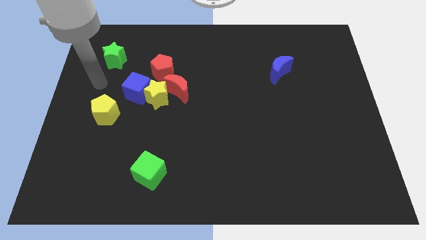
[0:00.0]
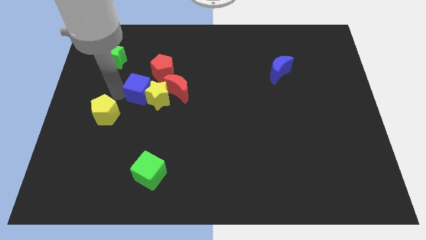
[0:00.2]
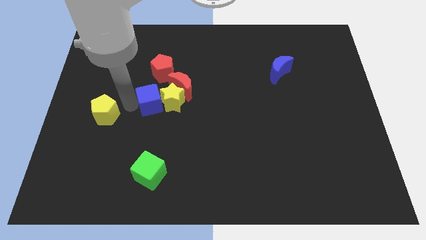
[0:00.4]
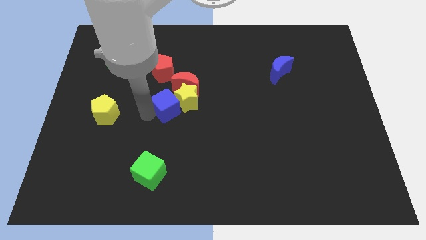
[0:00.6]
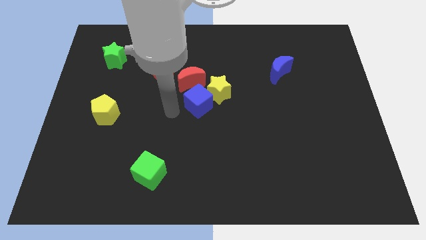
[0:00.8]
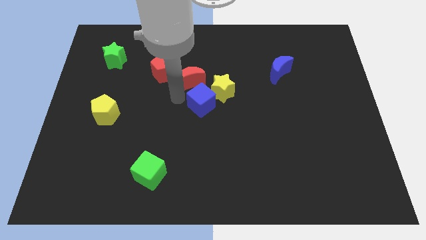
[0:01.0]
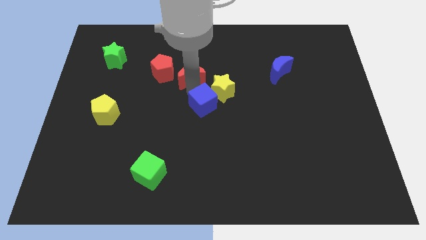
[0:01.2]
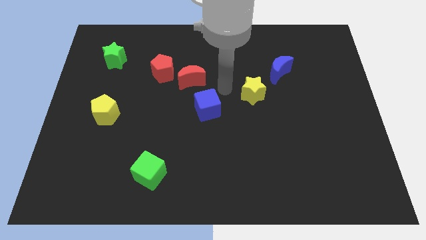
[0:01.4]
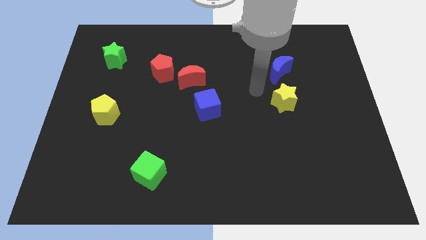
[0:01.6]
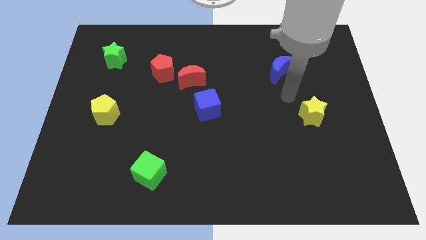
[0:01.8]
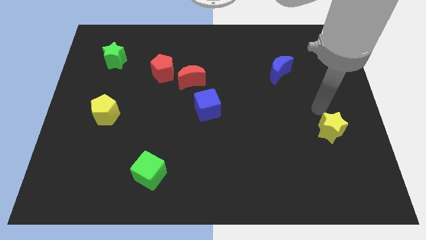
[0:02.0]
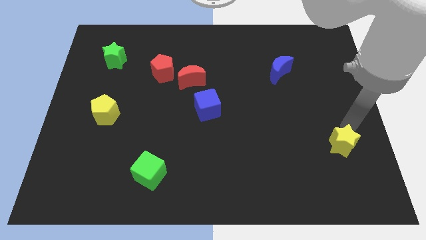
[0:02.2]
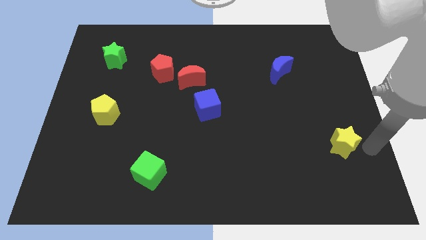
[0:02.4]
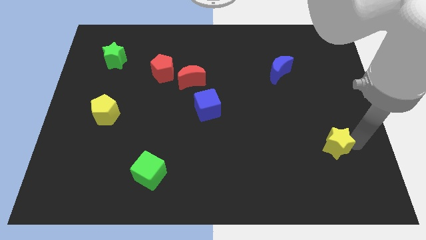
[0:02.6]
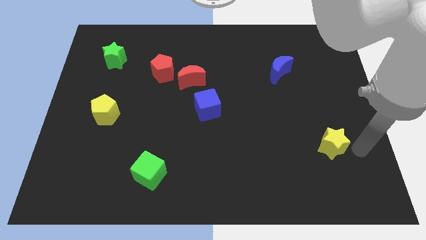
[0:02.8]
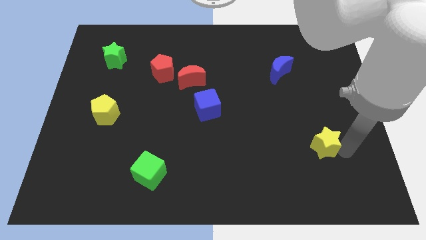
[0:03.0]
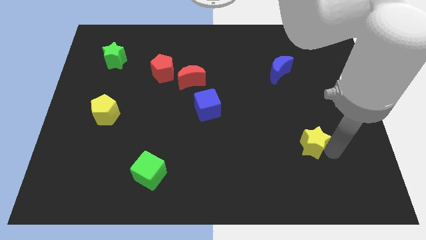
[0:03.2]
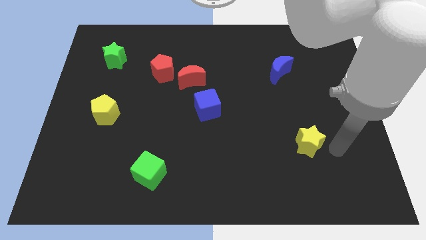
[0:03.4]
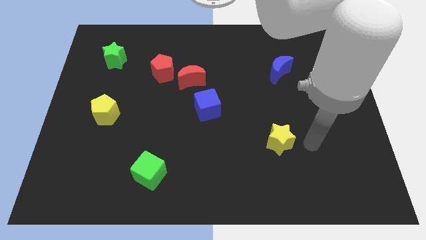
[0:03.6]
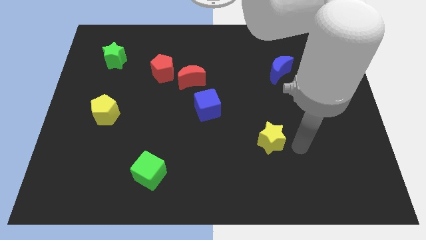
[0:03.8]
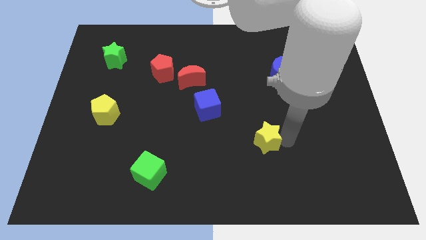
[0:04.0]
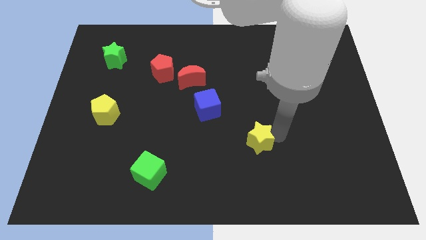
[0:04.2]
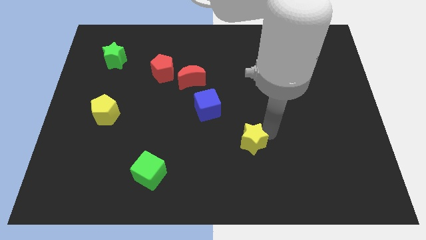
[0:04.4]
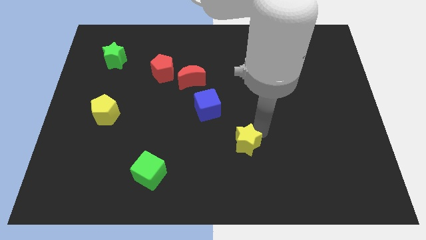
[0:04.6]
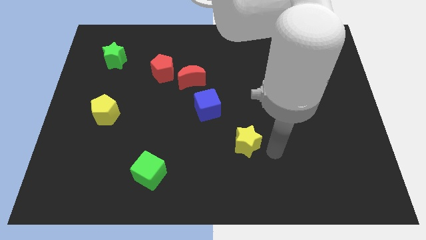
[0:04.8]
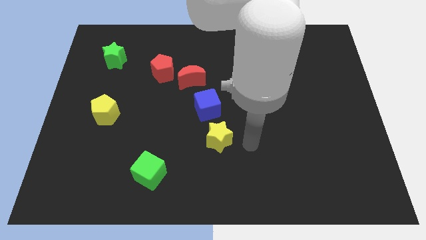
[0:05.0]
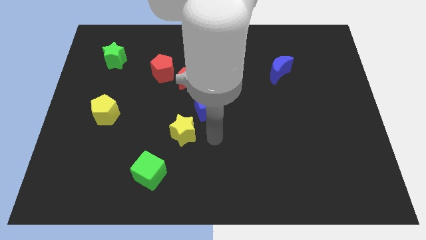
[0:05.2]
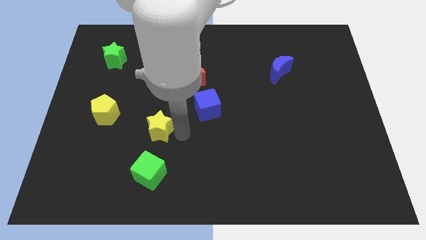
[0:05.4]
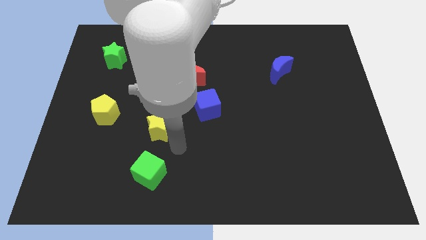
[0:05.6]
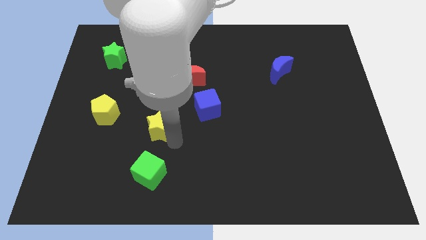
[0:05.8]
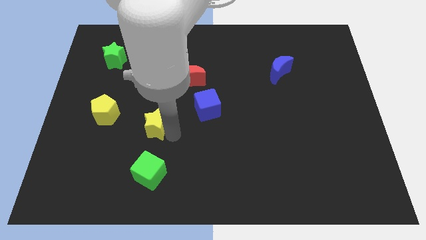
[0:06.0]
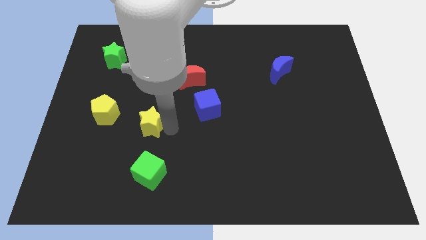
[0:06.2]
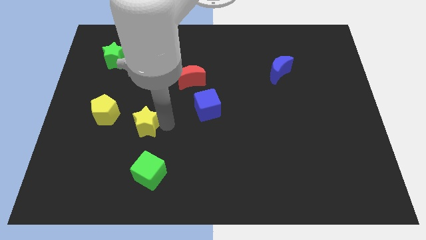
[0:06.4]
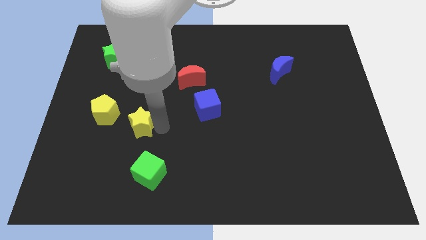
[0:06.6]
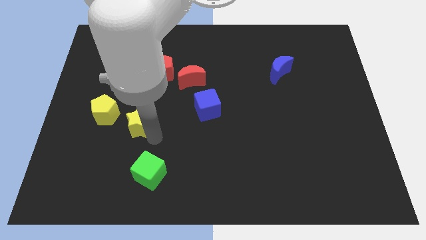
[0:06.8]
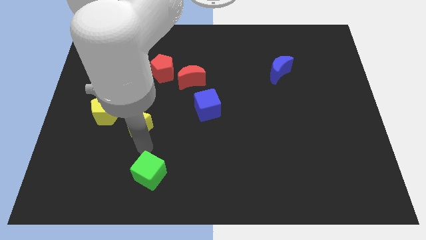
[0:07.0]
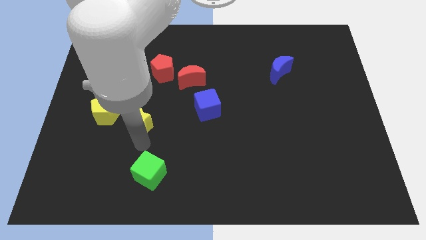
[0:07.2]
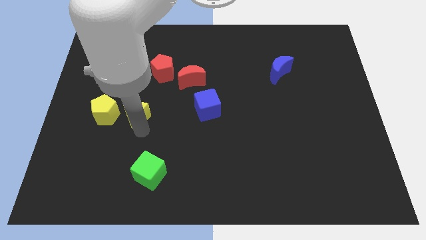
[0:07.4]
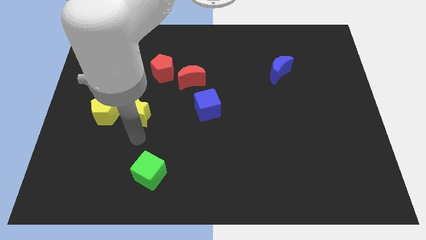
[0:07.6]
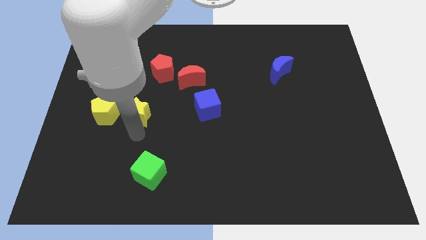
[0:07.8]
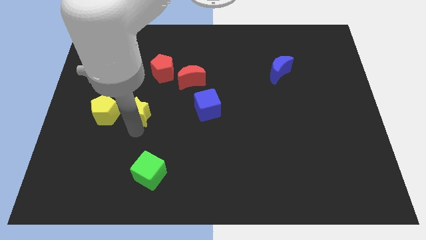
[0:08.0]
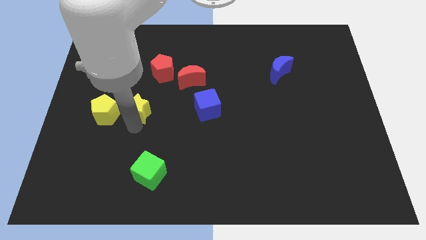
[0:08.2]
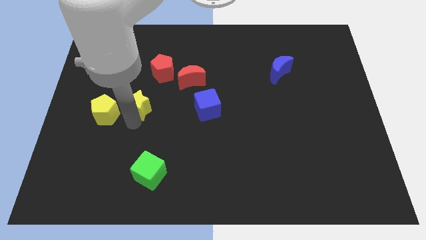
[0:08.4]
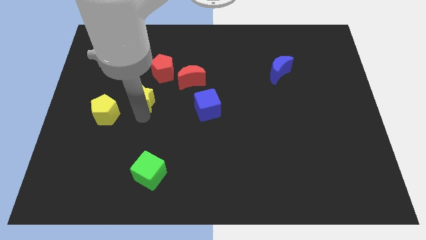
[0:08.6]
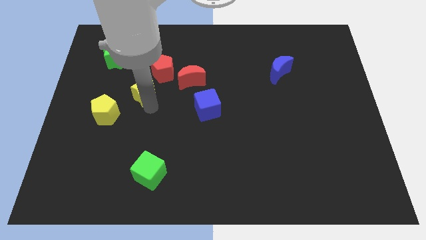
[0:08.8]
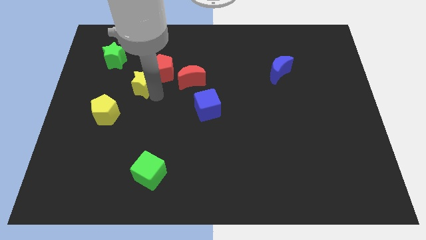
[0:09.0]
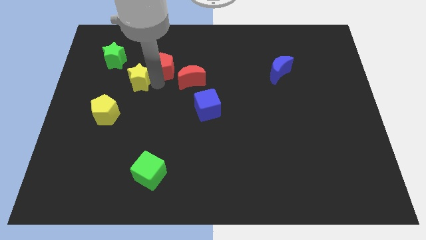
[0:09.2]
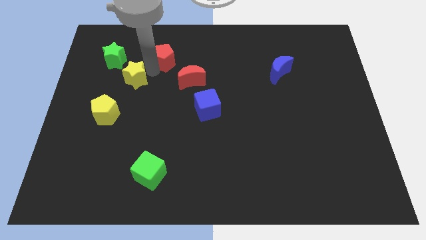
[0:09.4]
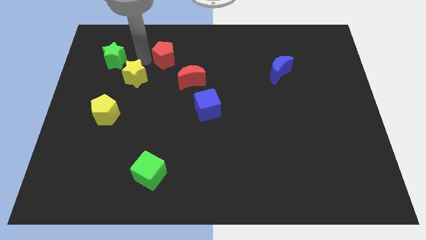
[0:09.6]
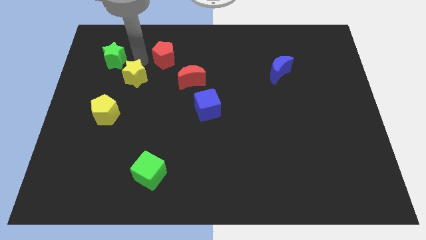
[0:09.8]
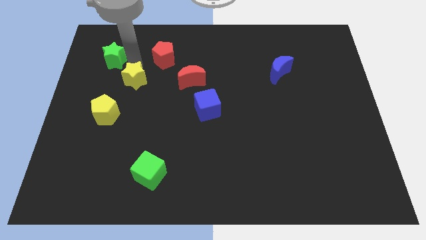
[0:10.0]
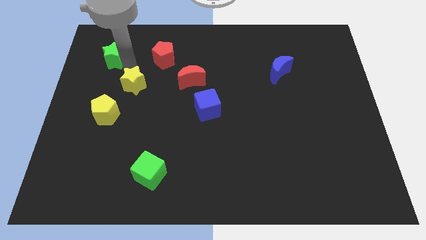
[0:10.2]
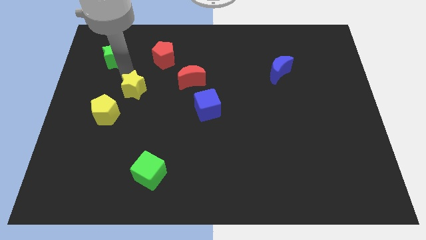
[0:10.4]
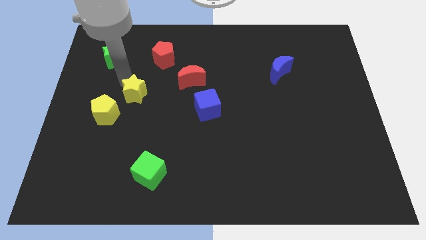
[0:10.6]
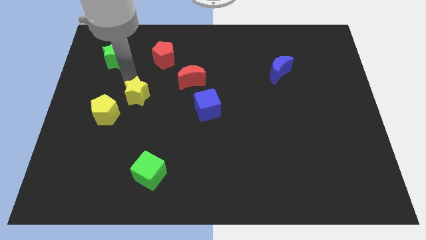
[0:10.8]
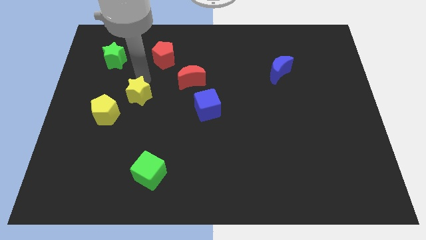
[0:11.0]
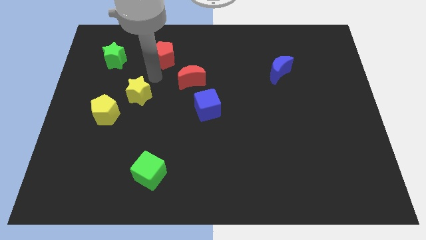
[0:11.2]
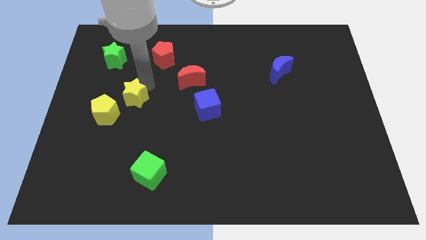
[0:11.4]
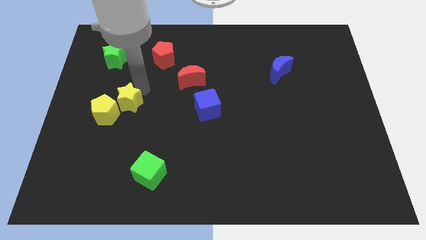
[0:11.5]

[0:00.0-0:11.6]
put the yellow star towards the yellow pentagon

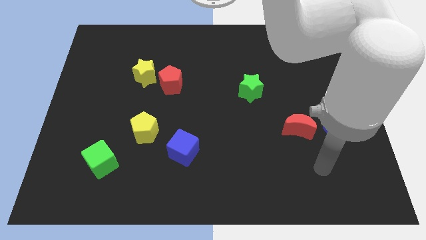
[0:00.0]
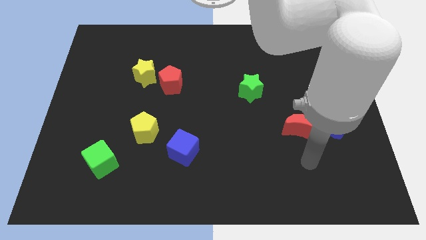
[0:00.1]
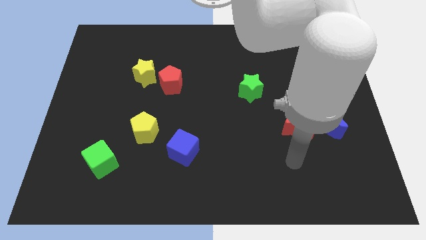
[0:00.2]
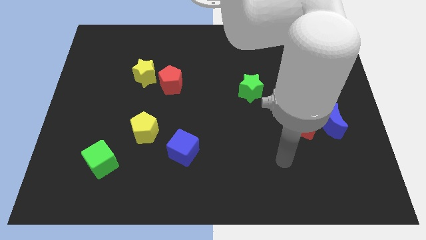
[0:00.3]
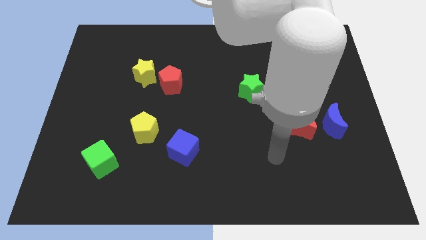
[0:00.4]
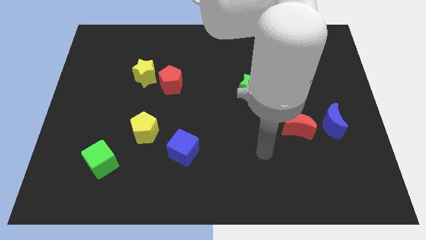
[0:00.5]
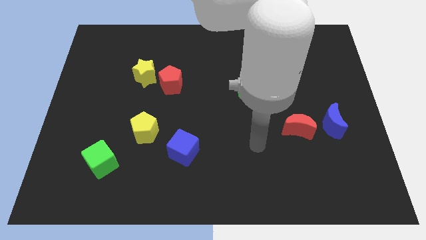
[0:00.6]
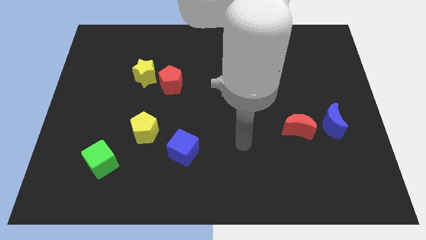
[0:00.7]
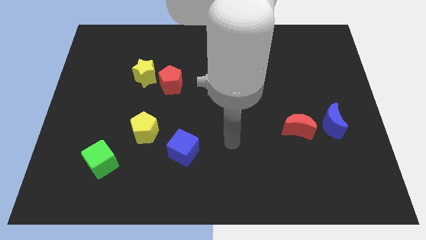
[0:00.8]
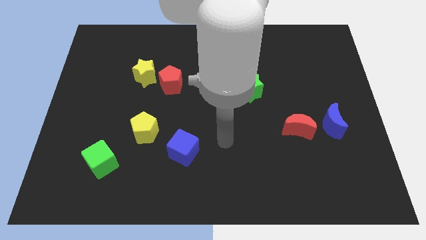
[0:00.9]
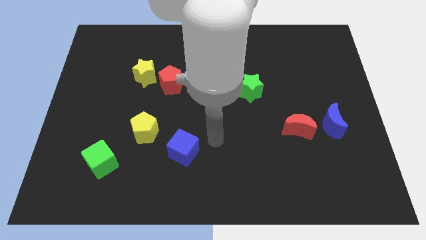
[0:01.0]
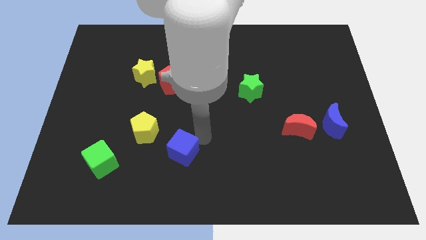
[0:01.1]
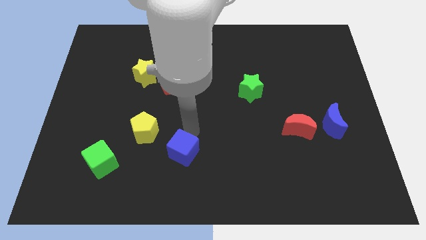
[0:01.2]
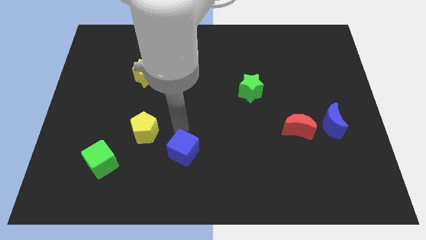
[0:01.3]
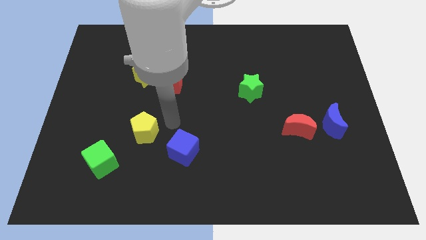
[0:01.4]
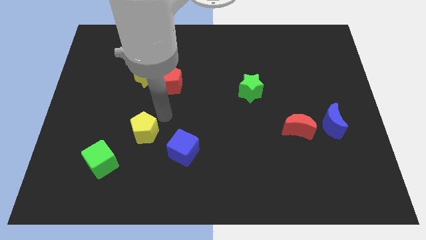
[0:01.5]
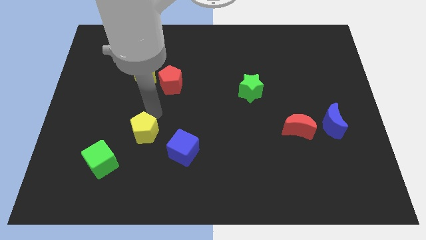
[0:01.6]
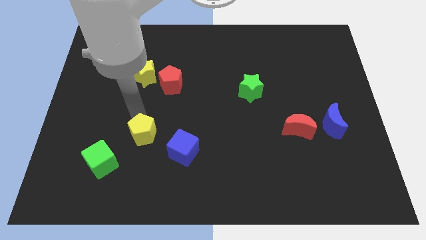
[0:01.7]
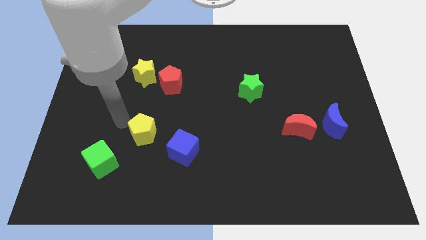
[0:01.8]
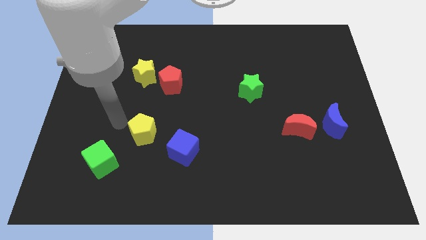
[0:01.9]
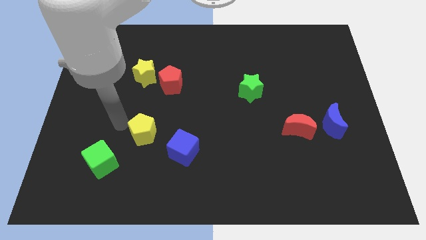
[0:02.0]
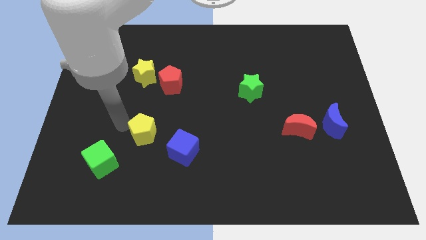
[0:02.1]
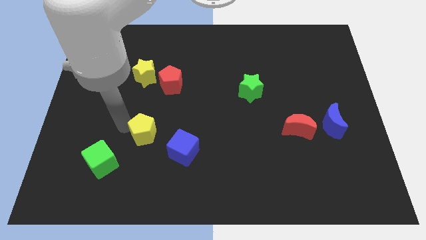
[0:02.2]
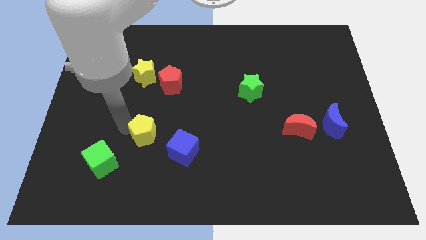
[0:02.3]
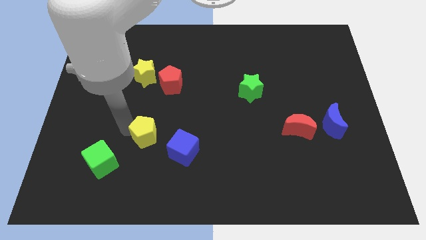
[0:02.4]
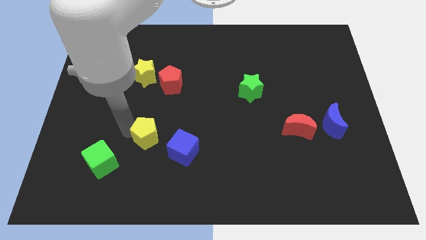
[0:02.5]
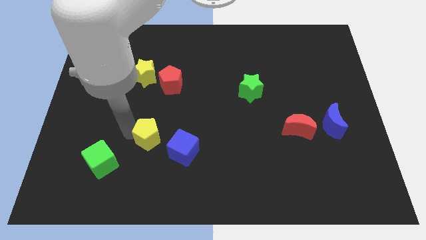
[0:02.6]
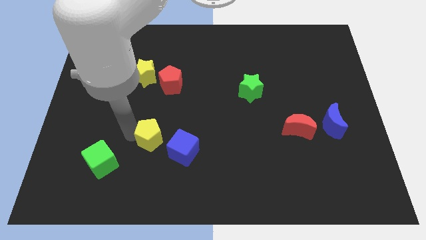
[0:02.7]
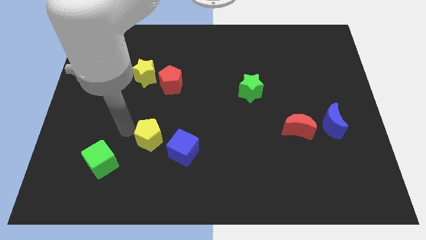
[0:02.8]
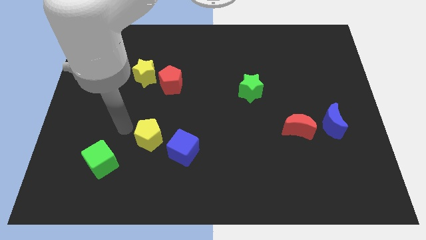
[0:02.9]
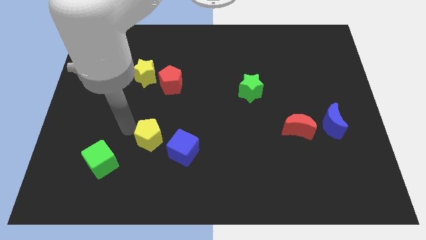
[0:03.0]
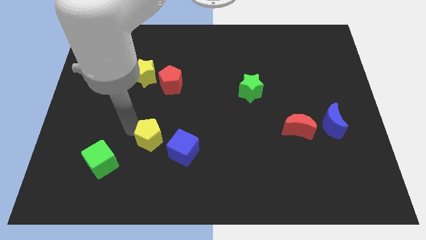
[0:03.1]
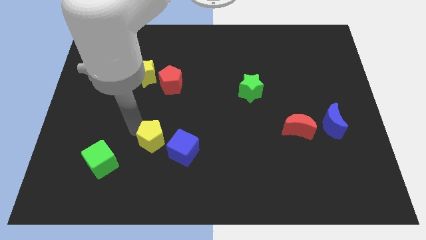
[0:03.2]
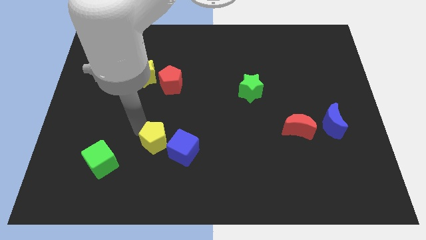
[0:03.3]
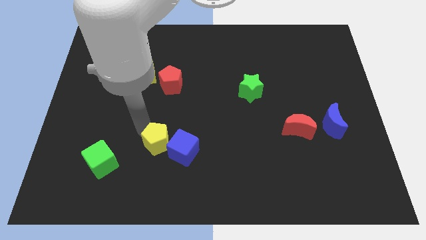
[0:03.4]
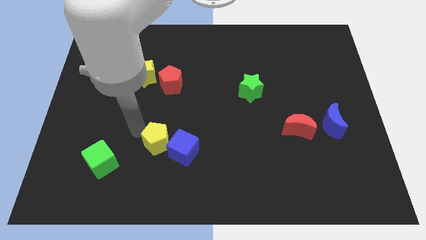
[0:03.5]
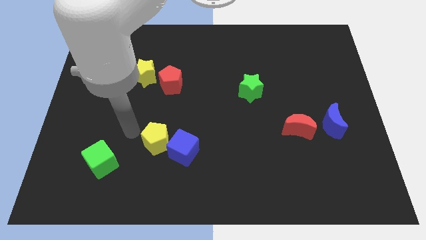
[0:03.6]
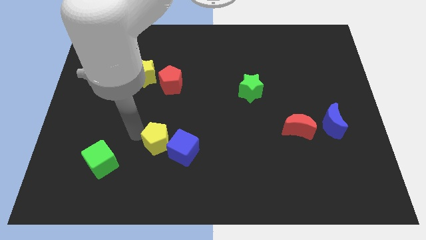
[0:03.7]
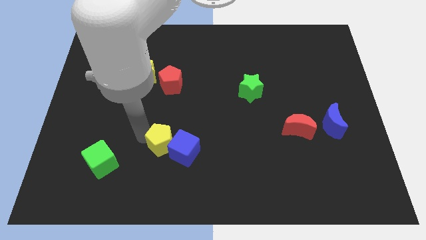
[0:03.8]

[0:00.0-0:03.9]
slide the yellow pentagon next to the blue cube
